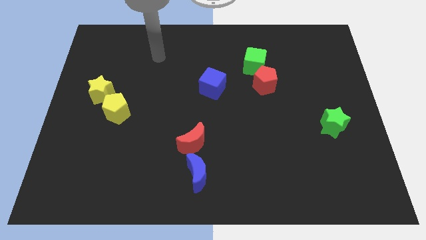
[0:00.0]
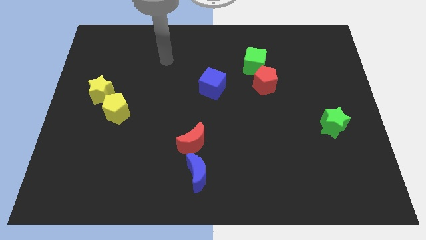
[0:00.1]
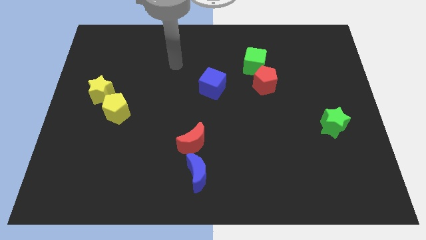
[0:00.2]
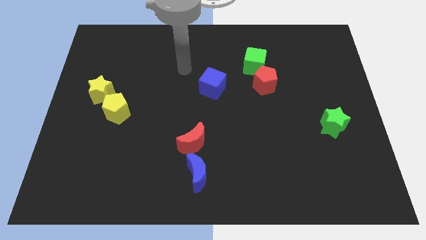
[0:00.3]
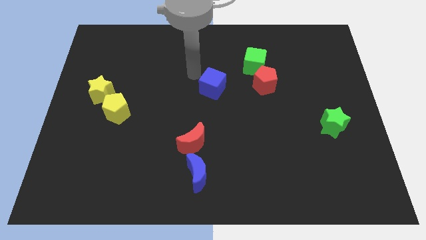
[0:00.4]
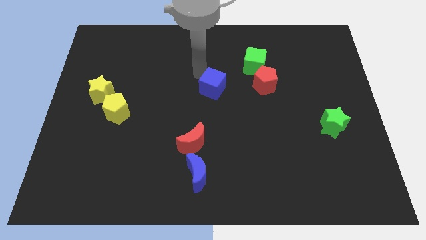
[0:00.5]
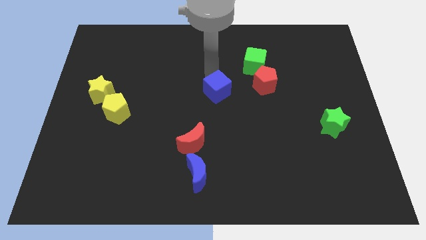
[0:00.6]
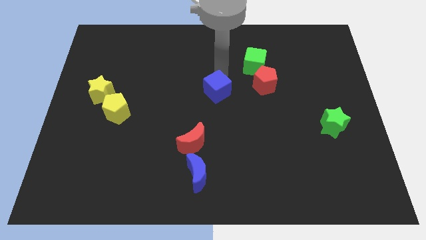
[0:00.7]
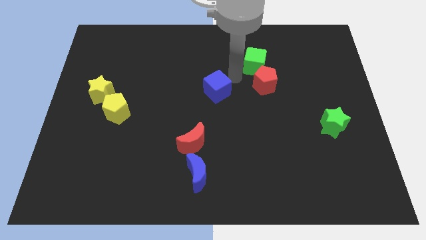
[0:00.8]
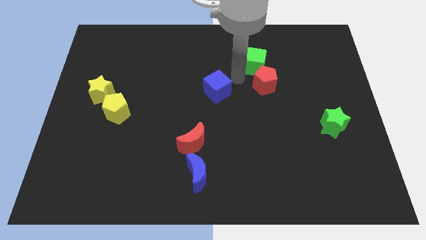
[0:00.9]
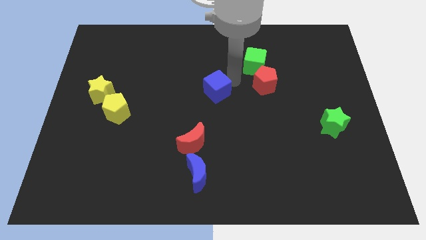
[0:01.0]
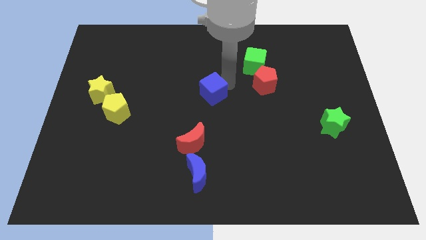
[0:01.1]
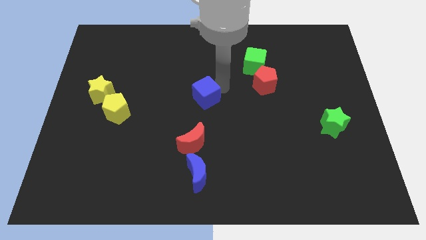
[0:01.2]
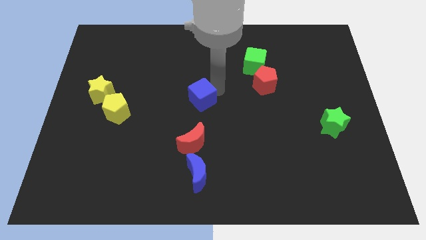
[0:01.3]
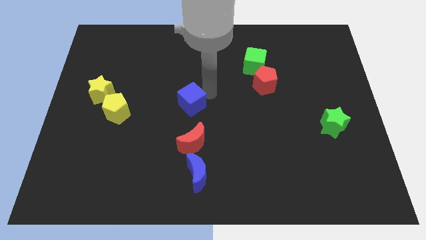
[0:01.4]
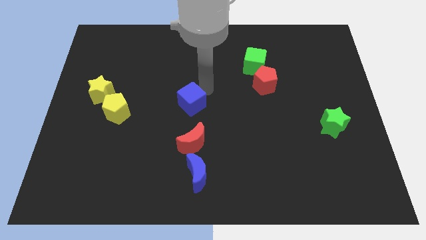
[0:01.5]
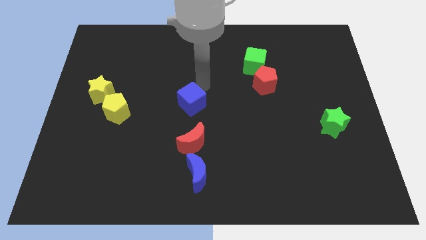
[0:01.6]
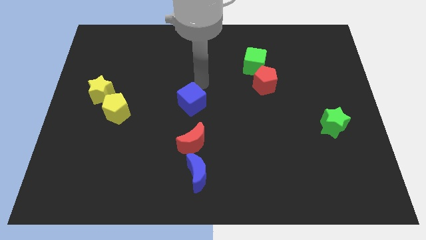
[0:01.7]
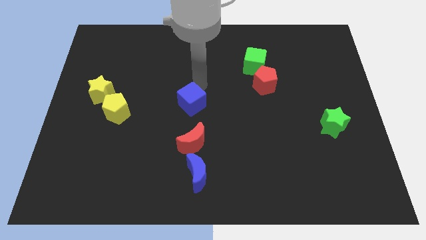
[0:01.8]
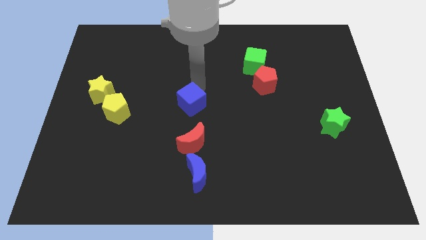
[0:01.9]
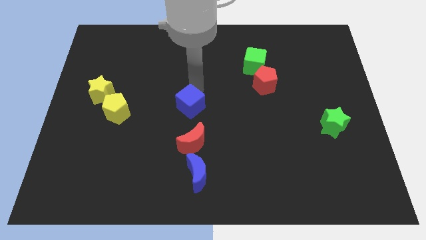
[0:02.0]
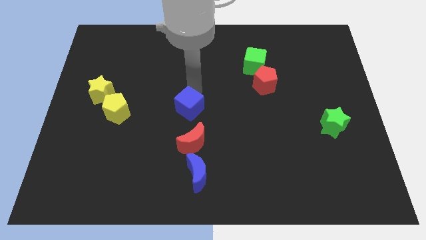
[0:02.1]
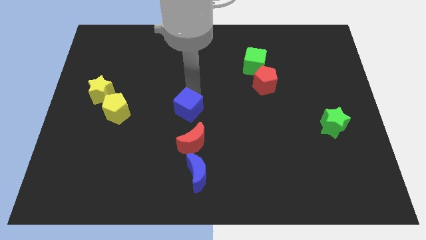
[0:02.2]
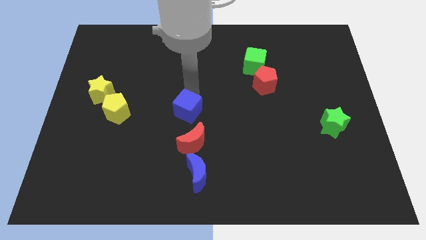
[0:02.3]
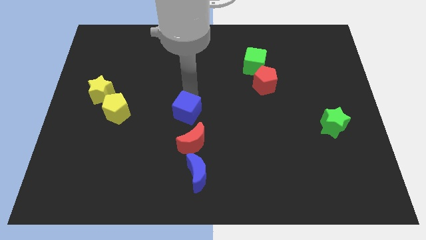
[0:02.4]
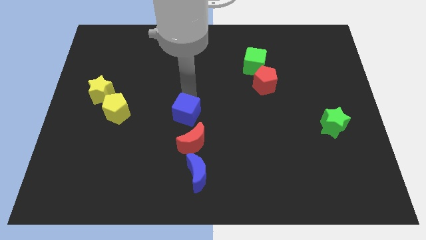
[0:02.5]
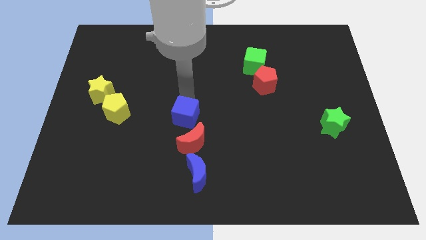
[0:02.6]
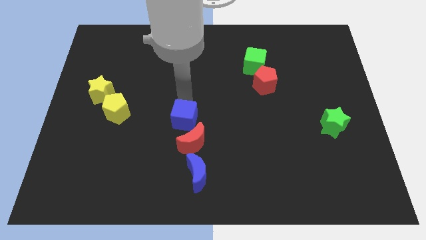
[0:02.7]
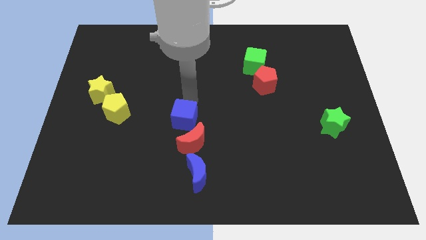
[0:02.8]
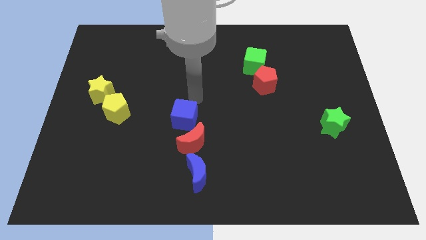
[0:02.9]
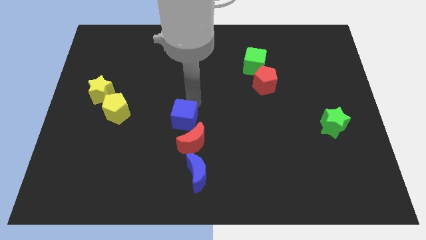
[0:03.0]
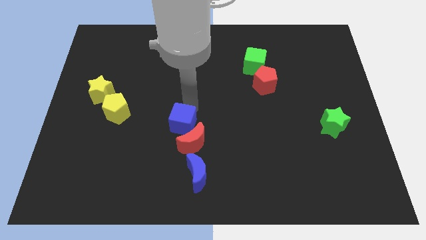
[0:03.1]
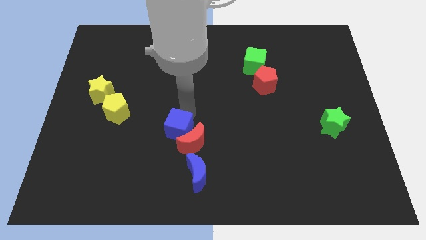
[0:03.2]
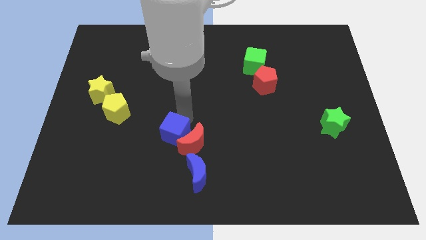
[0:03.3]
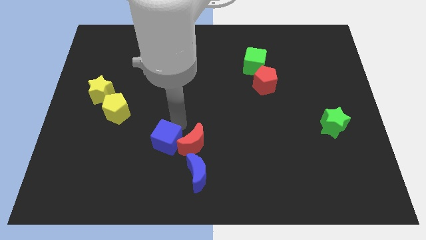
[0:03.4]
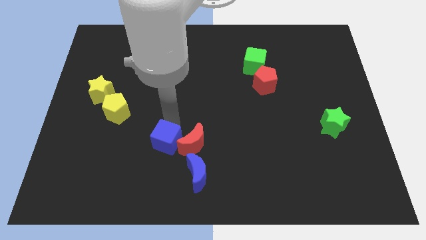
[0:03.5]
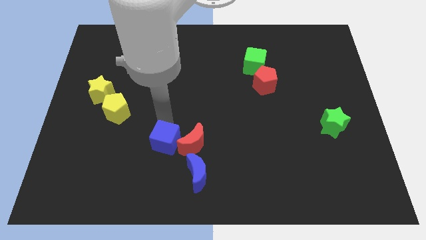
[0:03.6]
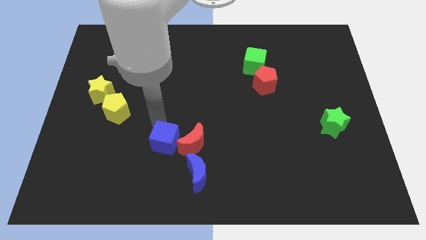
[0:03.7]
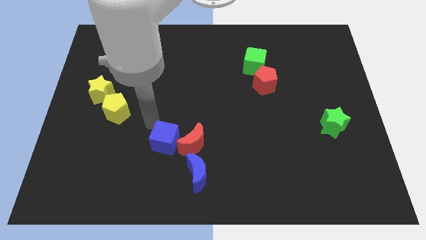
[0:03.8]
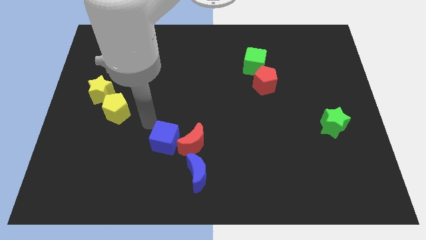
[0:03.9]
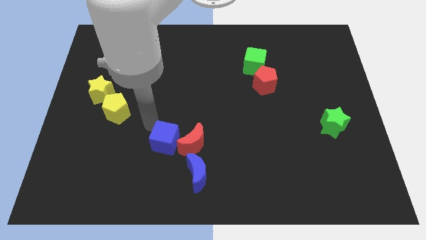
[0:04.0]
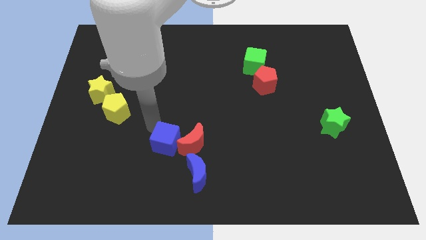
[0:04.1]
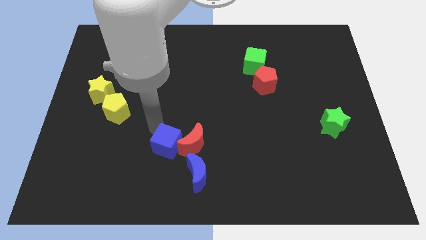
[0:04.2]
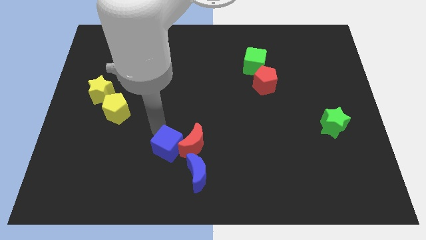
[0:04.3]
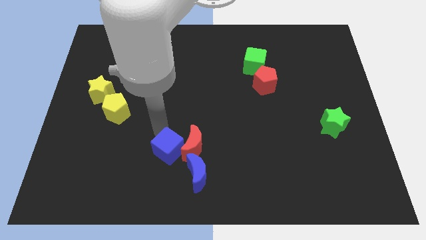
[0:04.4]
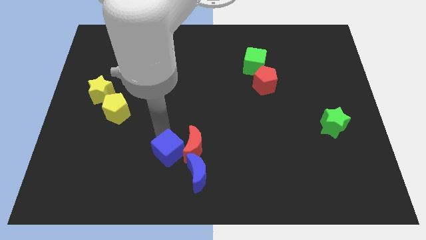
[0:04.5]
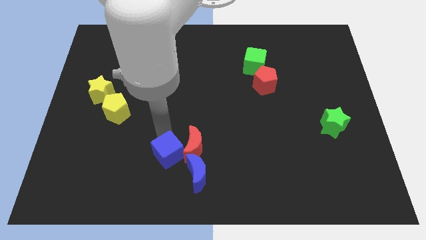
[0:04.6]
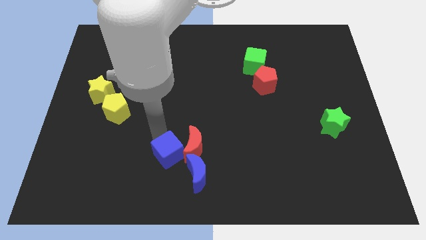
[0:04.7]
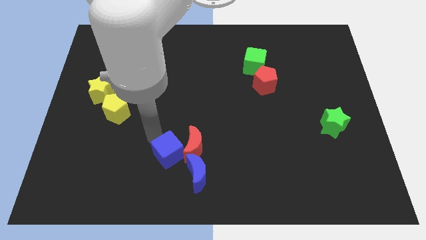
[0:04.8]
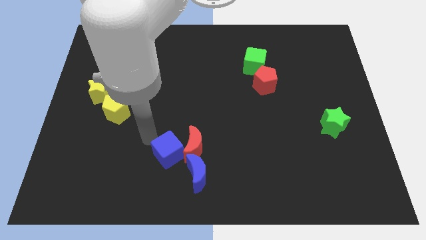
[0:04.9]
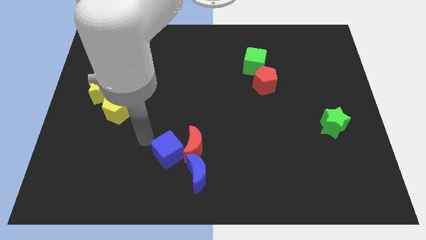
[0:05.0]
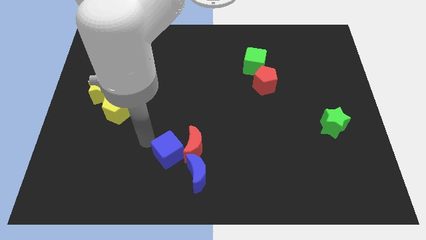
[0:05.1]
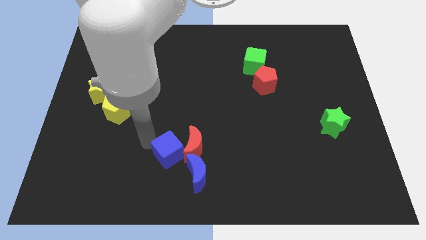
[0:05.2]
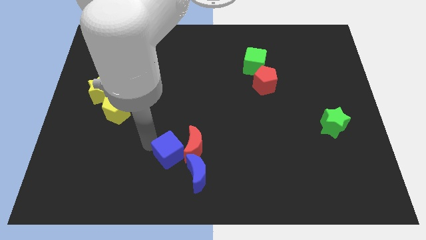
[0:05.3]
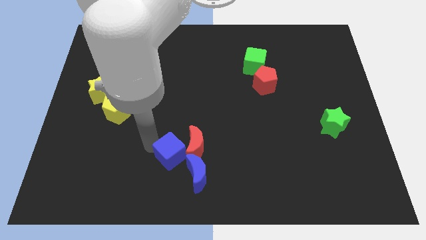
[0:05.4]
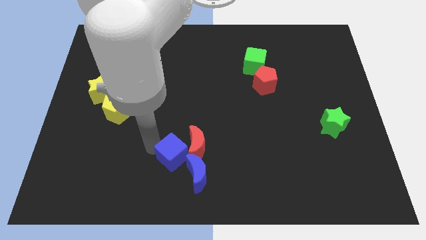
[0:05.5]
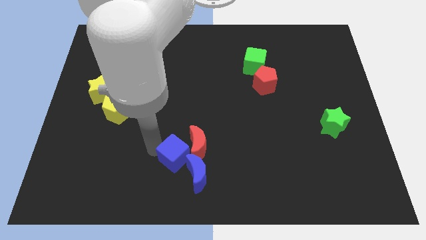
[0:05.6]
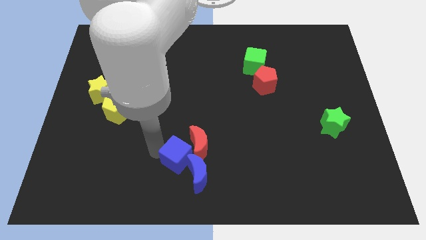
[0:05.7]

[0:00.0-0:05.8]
push the blue cube towards the blue moon

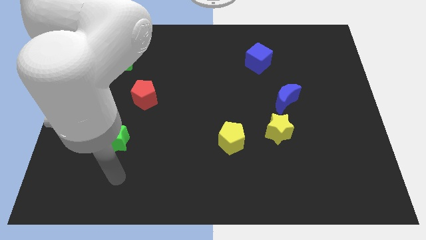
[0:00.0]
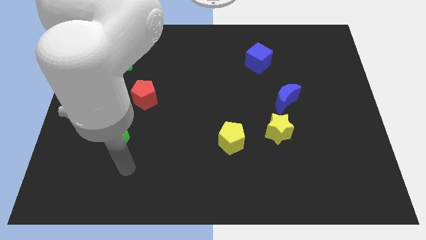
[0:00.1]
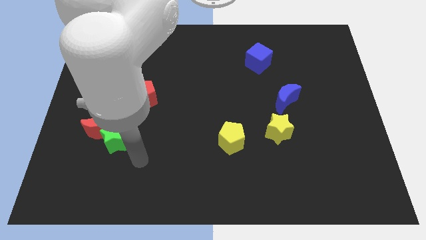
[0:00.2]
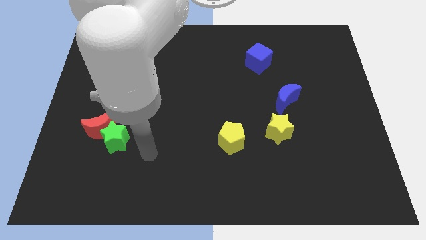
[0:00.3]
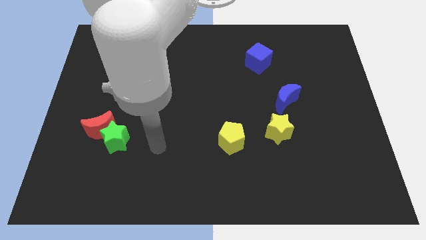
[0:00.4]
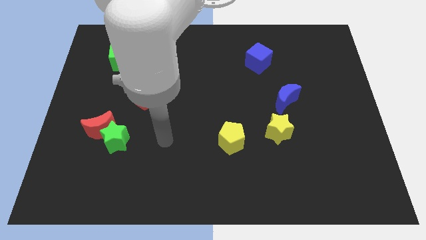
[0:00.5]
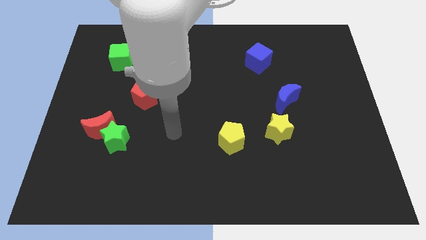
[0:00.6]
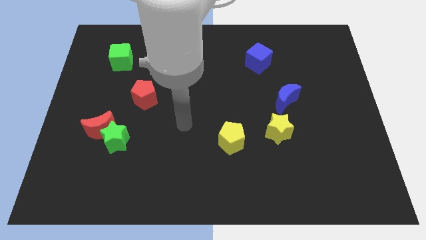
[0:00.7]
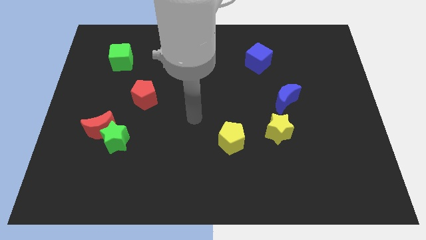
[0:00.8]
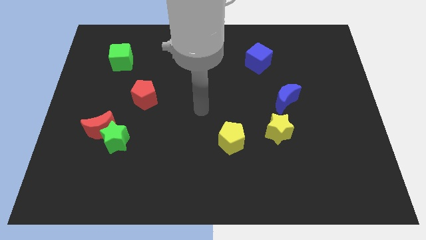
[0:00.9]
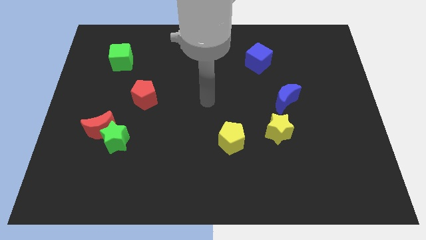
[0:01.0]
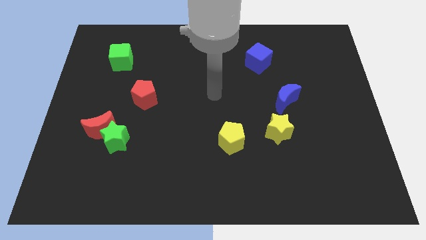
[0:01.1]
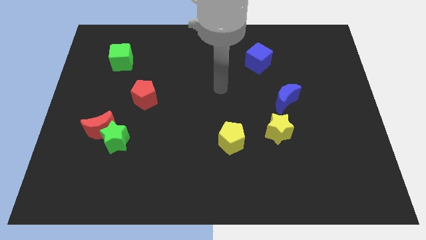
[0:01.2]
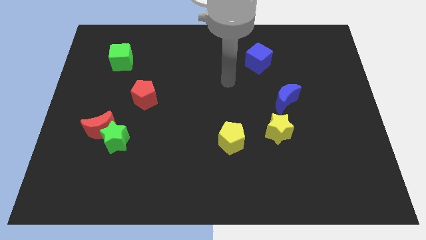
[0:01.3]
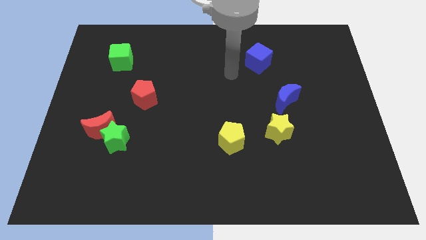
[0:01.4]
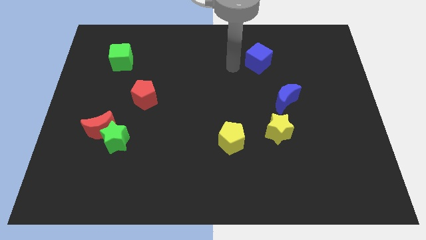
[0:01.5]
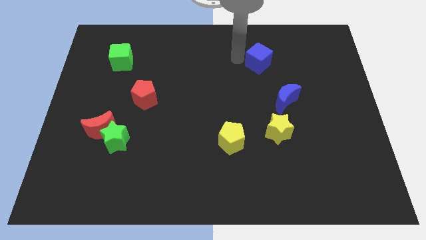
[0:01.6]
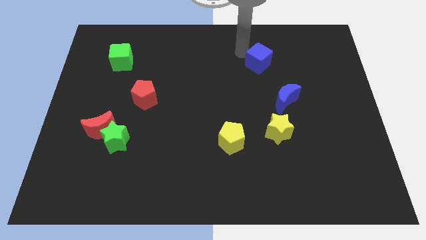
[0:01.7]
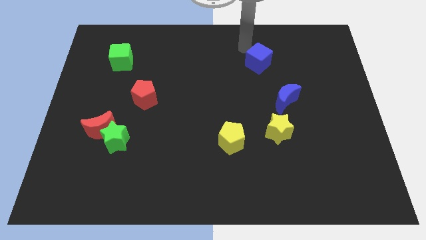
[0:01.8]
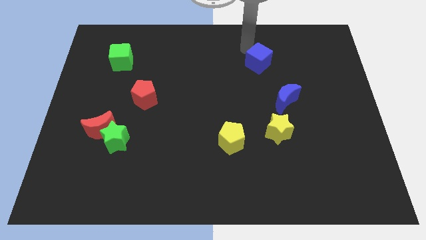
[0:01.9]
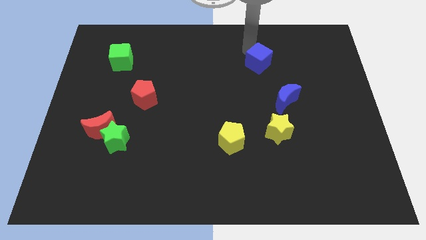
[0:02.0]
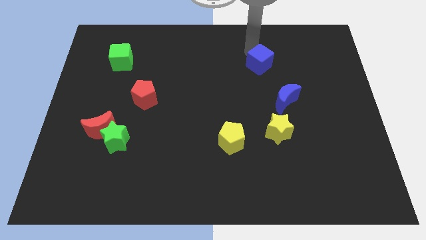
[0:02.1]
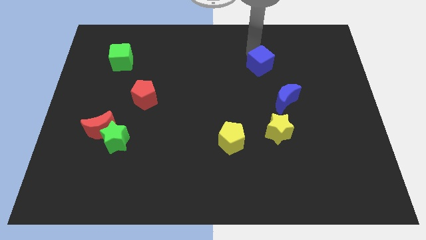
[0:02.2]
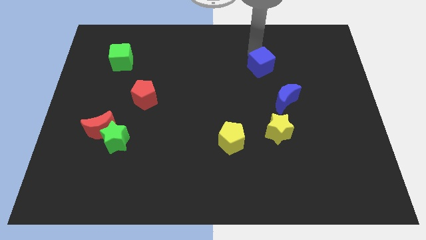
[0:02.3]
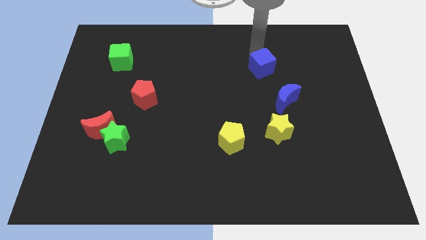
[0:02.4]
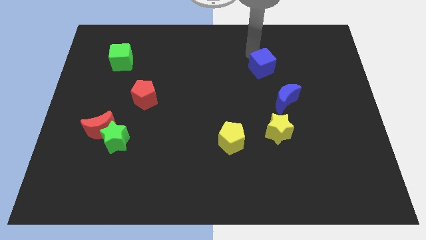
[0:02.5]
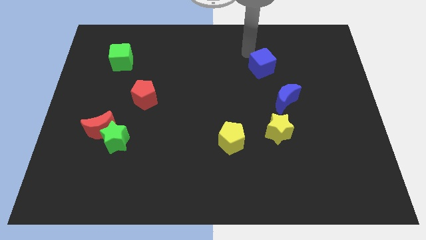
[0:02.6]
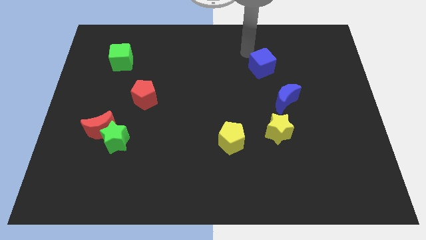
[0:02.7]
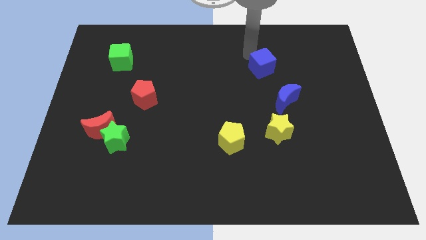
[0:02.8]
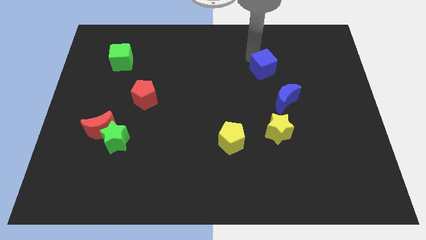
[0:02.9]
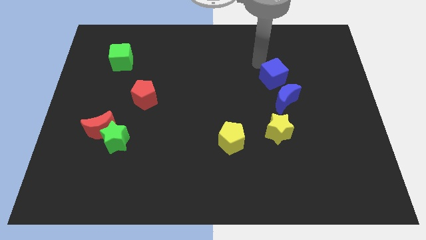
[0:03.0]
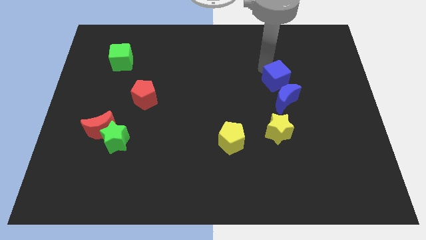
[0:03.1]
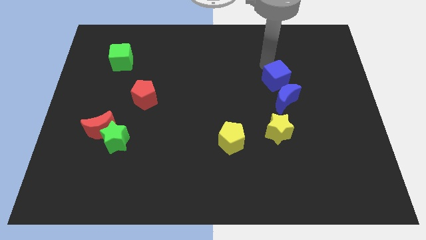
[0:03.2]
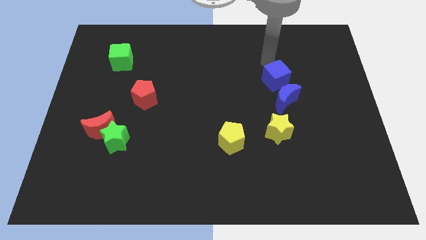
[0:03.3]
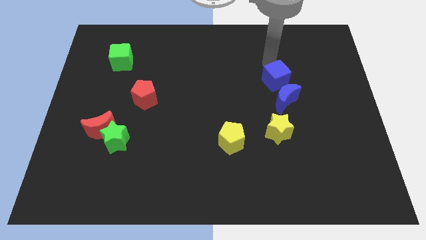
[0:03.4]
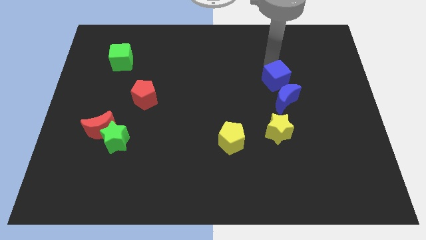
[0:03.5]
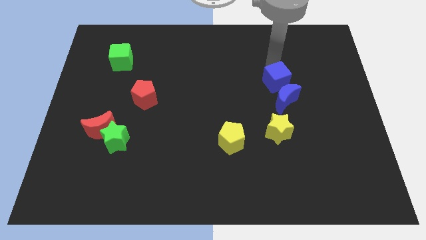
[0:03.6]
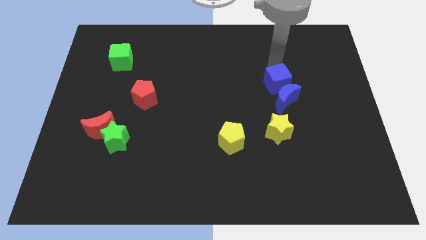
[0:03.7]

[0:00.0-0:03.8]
push the blue cube to the blue moon
